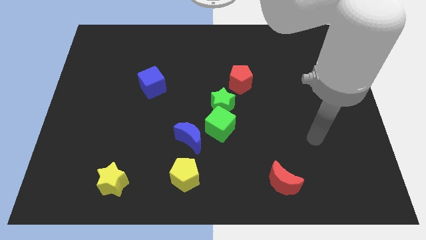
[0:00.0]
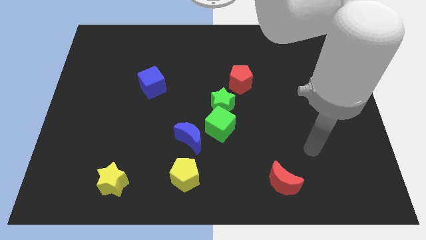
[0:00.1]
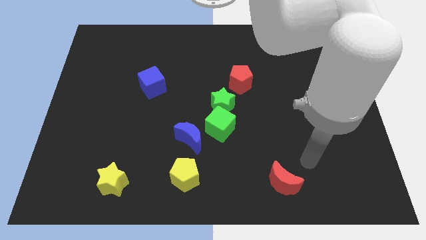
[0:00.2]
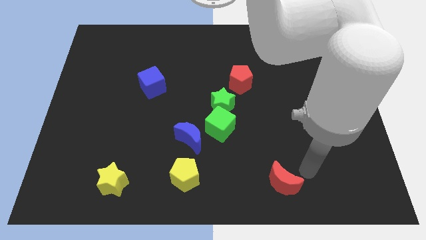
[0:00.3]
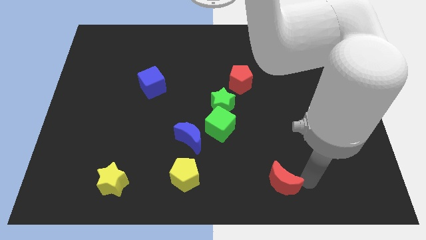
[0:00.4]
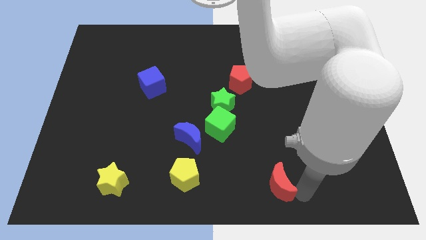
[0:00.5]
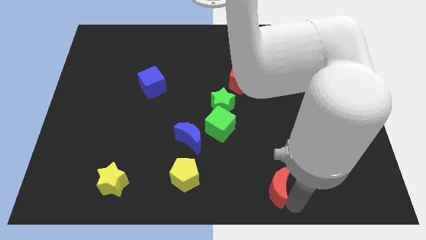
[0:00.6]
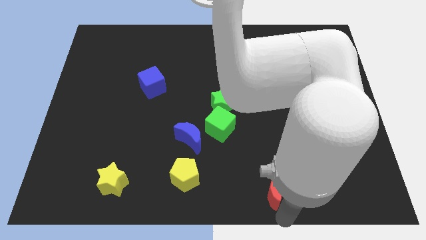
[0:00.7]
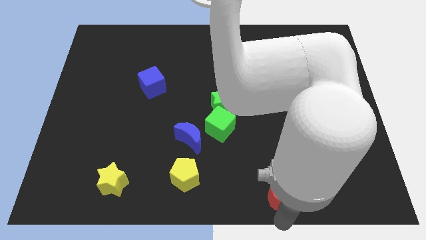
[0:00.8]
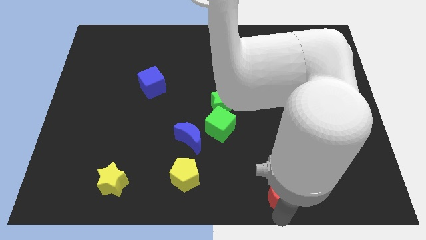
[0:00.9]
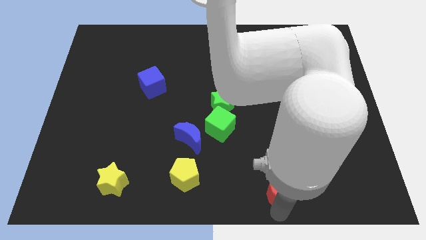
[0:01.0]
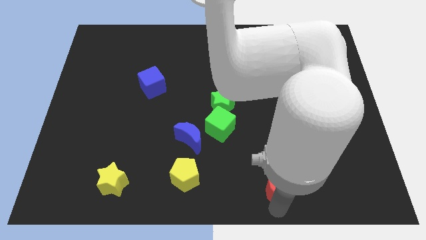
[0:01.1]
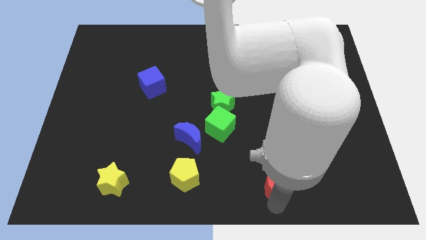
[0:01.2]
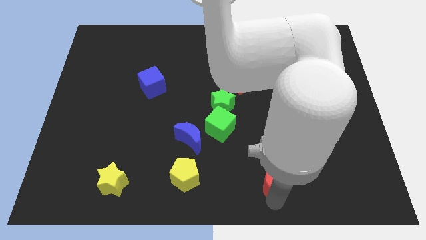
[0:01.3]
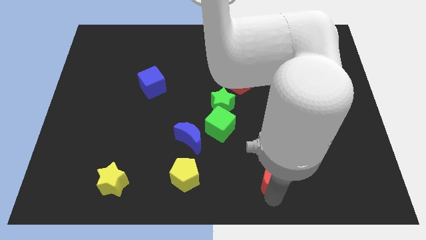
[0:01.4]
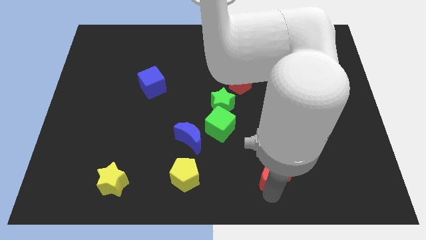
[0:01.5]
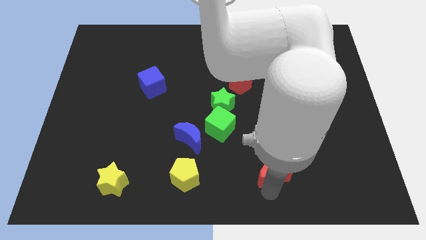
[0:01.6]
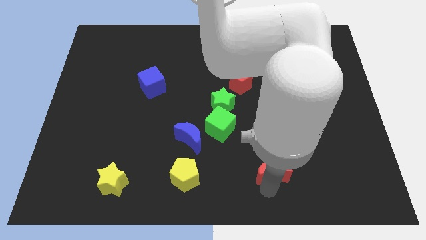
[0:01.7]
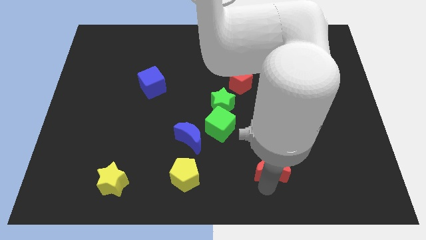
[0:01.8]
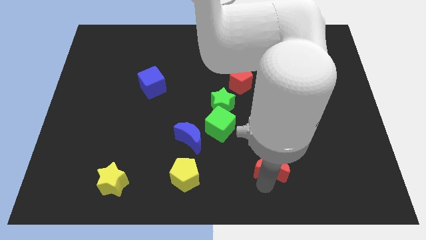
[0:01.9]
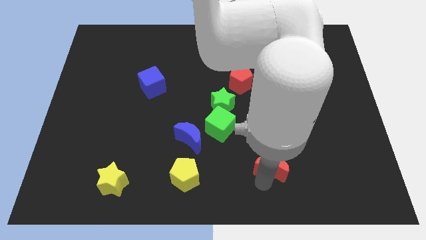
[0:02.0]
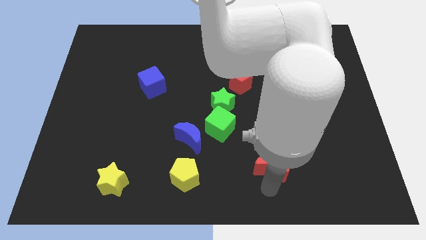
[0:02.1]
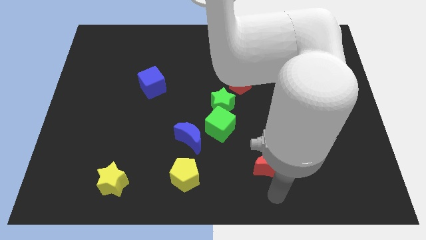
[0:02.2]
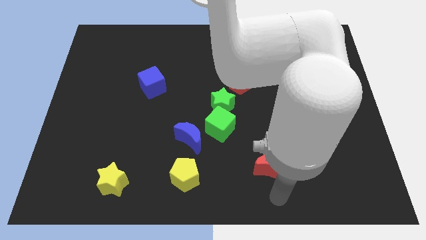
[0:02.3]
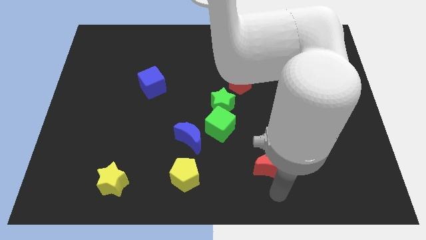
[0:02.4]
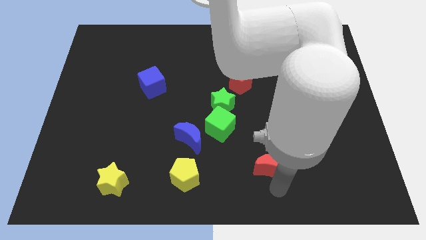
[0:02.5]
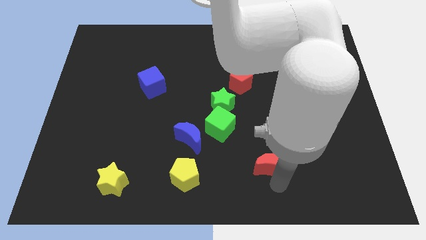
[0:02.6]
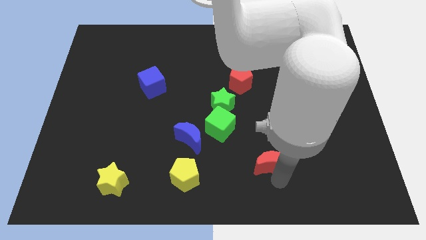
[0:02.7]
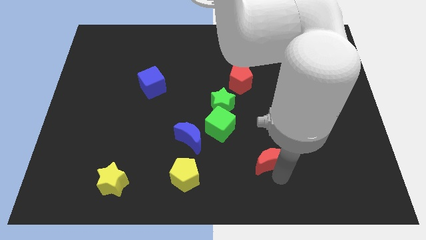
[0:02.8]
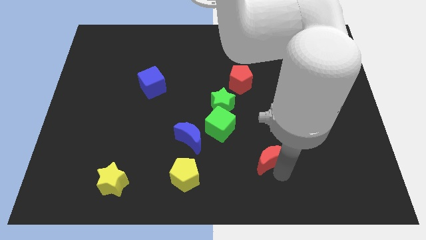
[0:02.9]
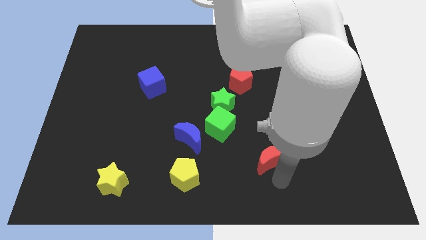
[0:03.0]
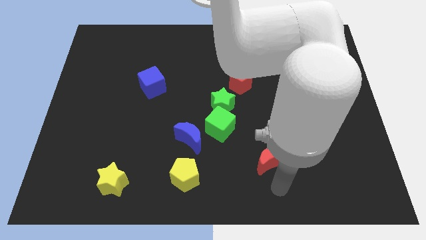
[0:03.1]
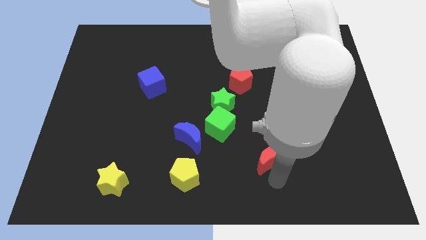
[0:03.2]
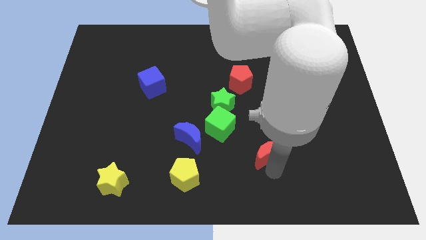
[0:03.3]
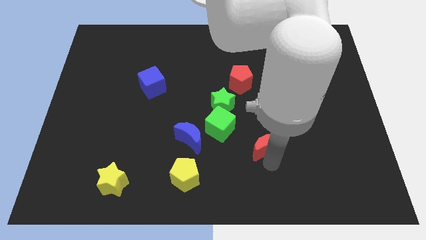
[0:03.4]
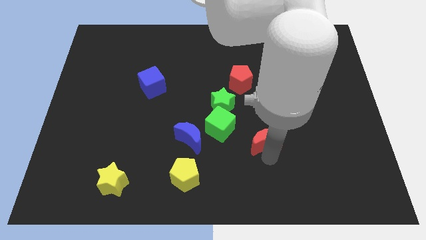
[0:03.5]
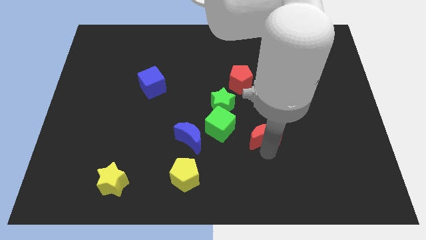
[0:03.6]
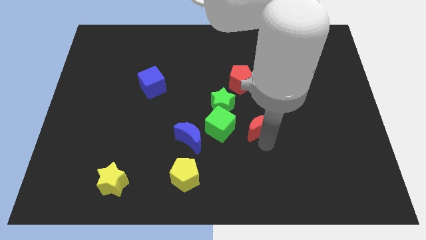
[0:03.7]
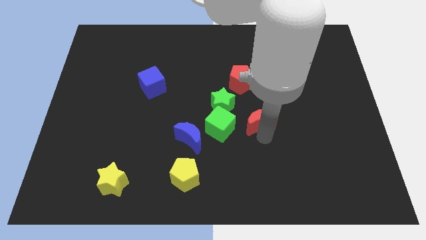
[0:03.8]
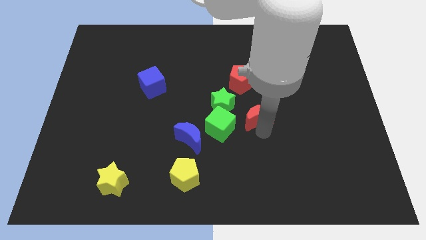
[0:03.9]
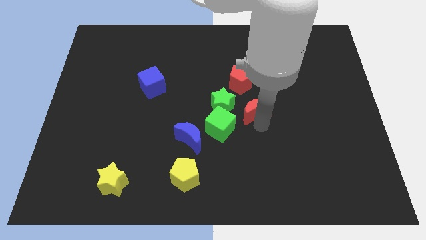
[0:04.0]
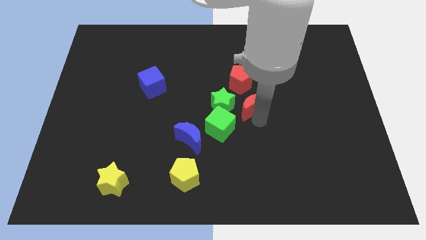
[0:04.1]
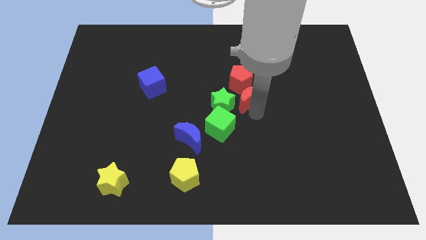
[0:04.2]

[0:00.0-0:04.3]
move the red moon next to the red pentagon

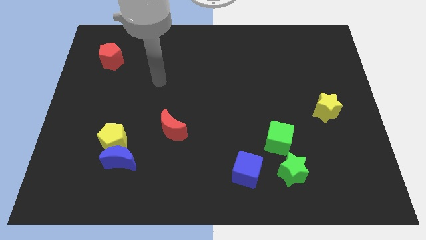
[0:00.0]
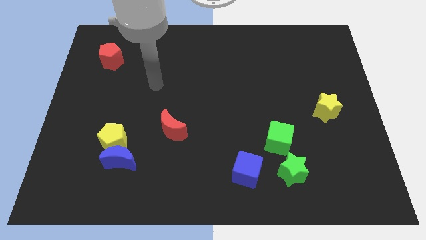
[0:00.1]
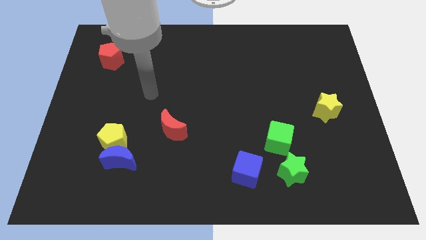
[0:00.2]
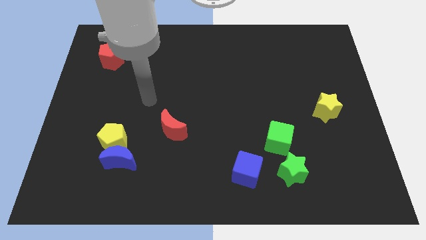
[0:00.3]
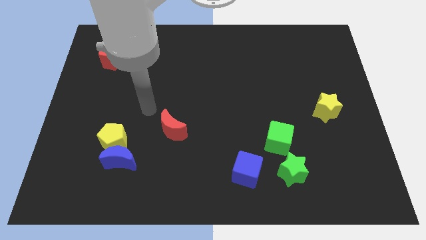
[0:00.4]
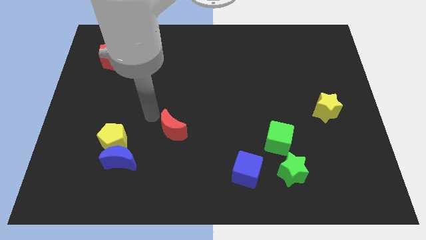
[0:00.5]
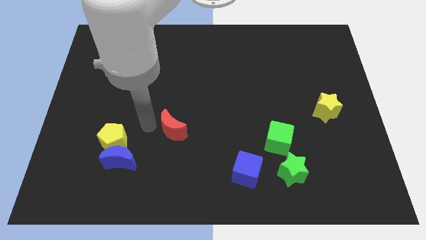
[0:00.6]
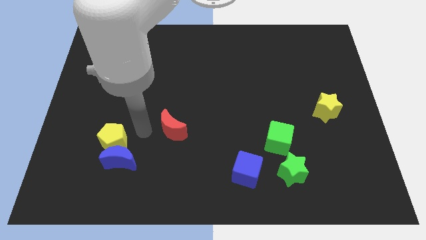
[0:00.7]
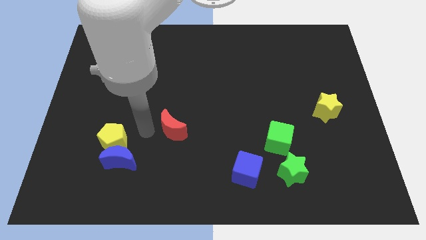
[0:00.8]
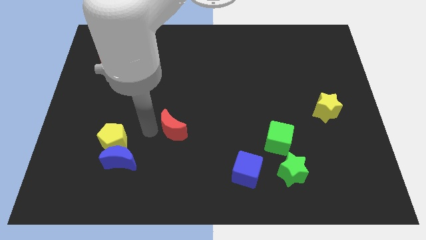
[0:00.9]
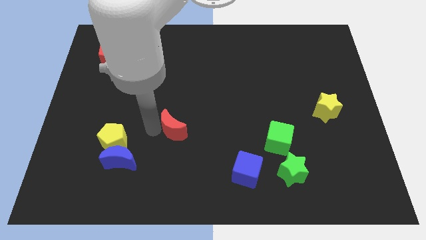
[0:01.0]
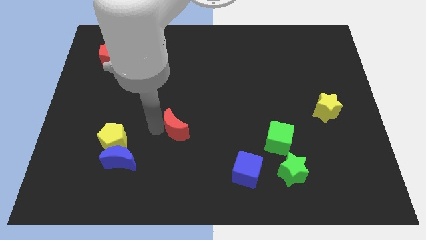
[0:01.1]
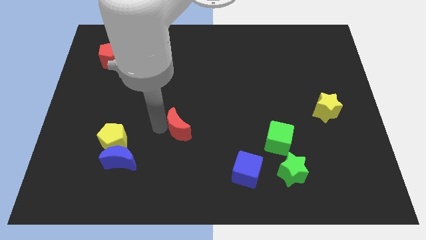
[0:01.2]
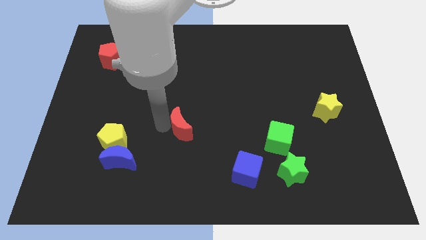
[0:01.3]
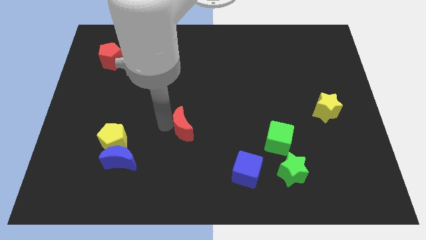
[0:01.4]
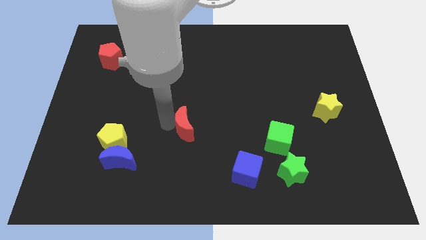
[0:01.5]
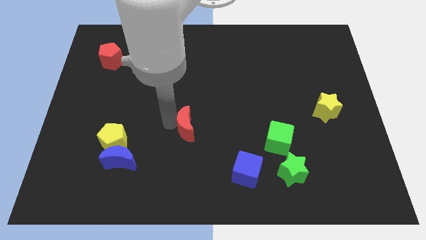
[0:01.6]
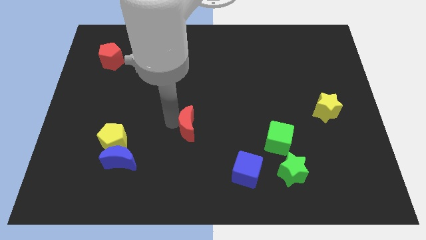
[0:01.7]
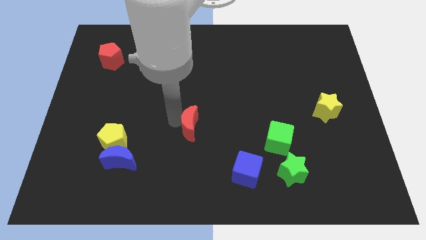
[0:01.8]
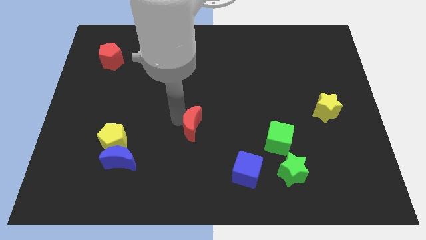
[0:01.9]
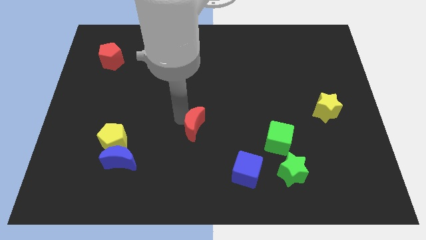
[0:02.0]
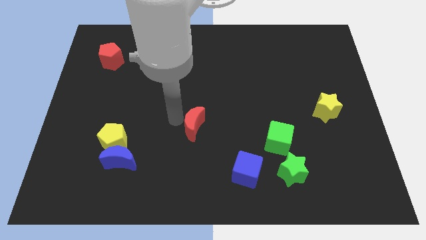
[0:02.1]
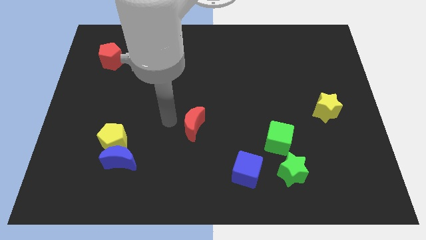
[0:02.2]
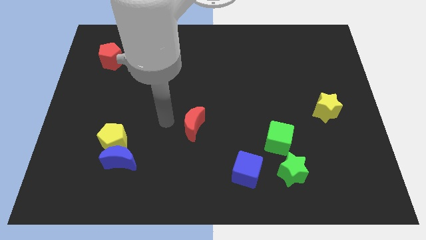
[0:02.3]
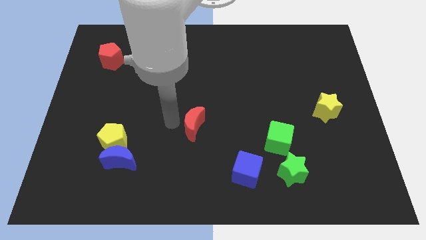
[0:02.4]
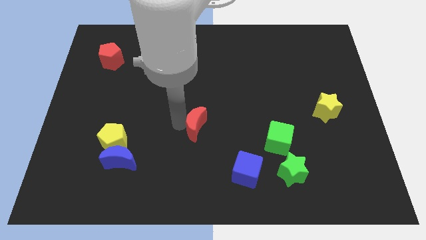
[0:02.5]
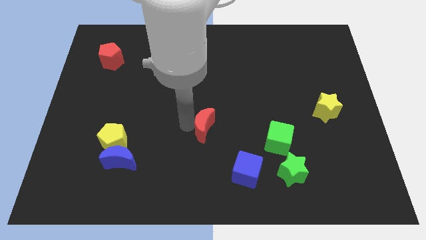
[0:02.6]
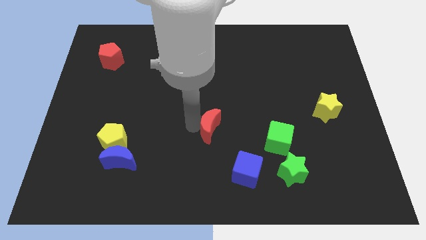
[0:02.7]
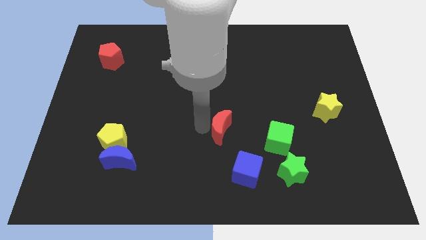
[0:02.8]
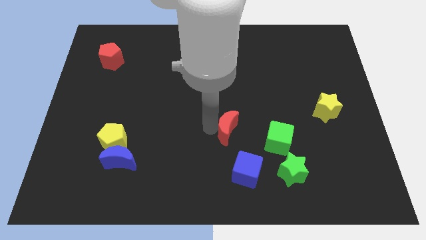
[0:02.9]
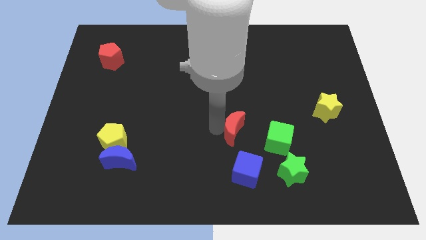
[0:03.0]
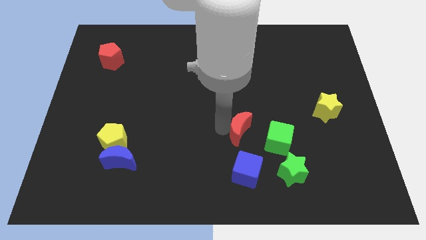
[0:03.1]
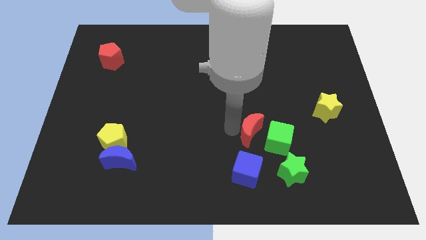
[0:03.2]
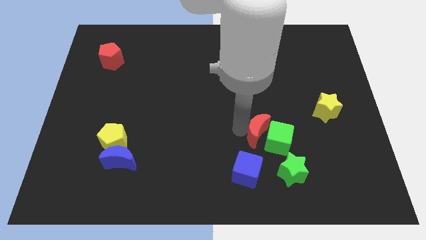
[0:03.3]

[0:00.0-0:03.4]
push the red moon next to the green cube

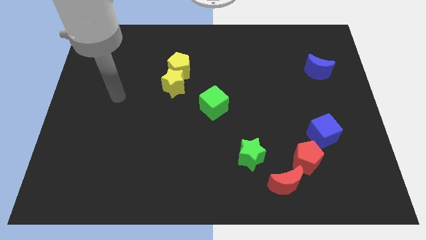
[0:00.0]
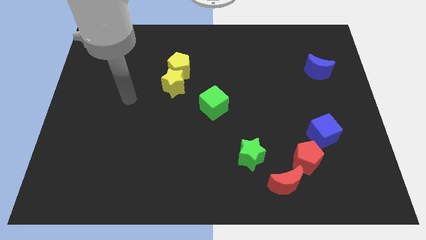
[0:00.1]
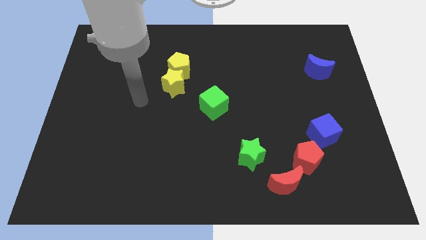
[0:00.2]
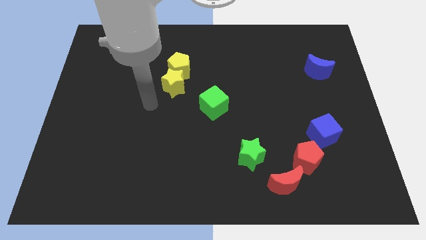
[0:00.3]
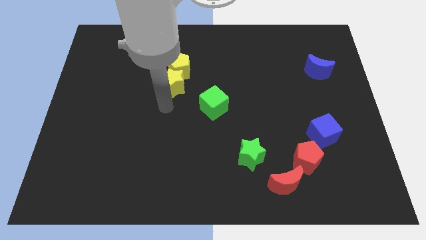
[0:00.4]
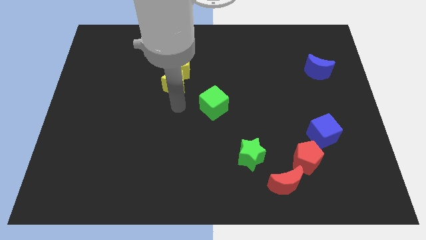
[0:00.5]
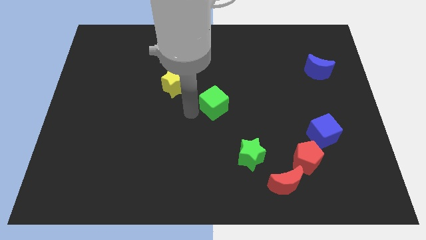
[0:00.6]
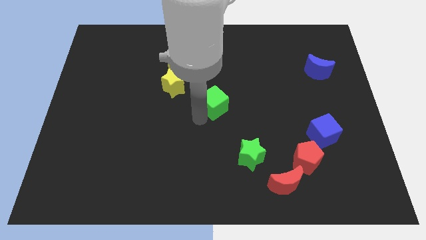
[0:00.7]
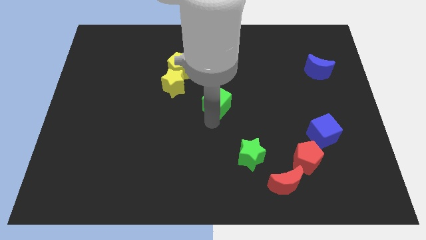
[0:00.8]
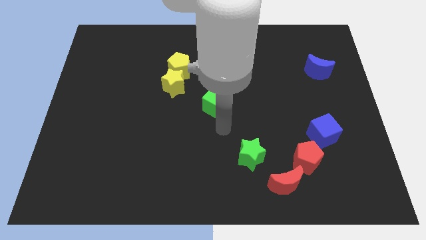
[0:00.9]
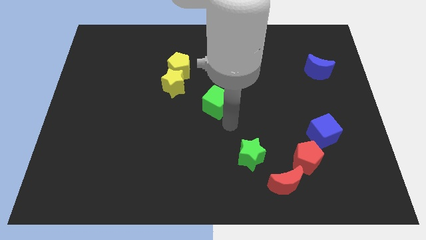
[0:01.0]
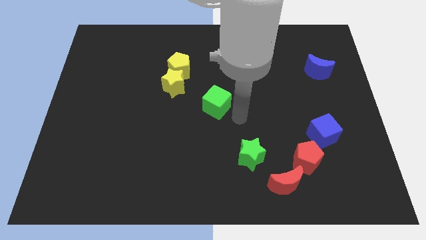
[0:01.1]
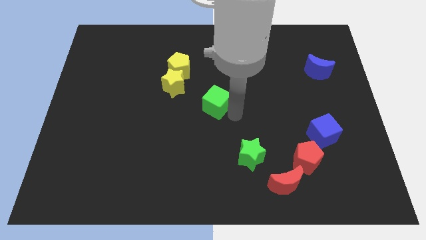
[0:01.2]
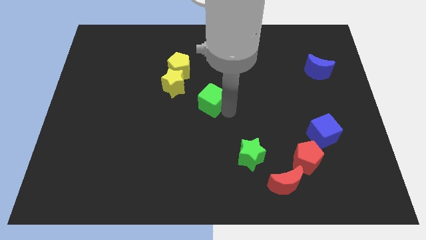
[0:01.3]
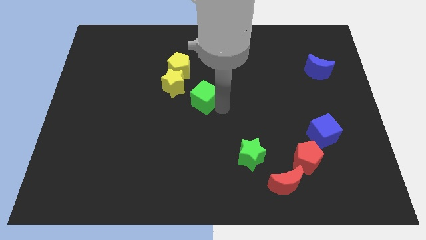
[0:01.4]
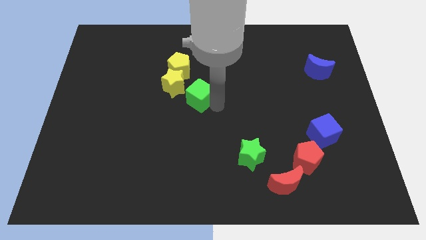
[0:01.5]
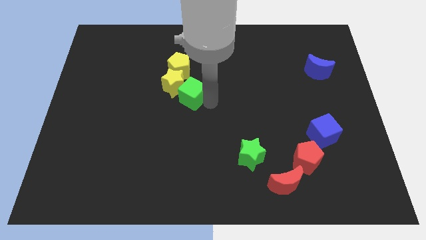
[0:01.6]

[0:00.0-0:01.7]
put the green cube close to the yellow star
